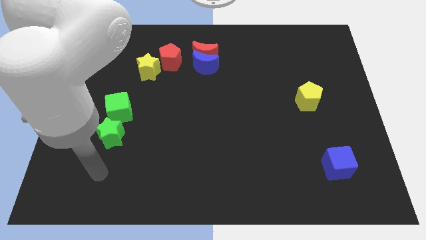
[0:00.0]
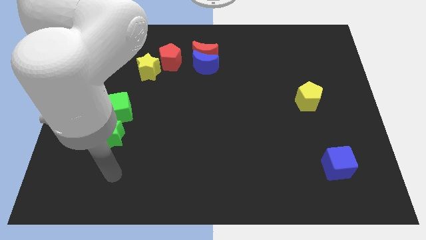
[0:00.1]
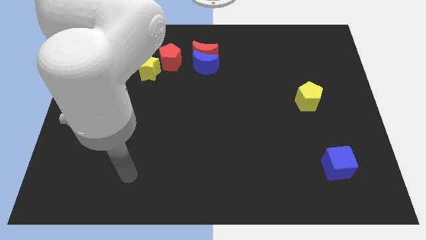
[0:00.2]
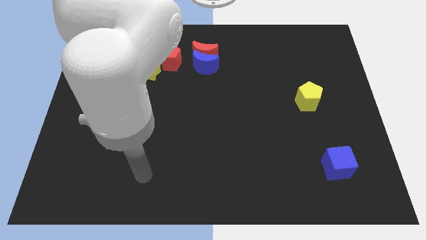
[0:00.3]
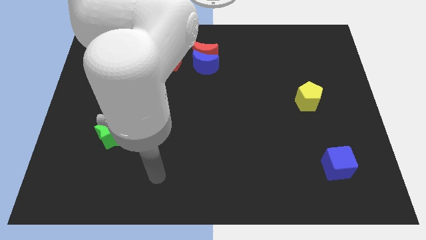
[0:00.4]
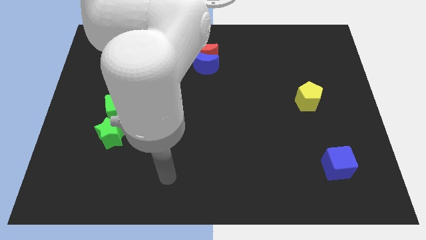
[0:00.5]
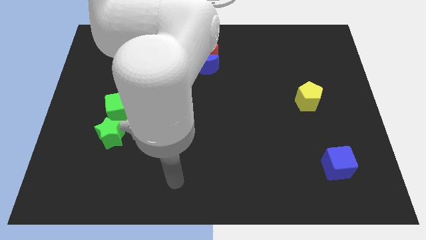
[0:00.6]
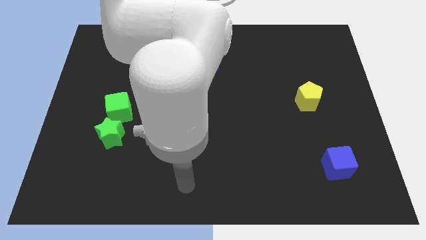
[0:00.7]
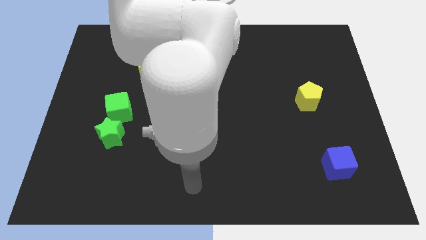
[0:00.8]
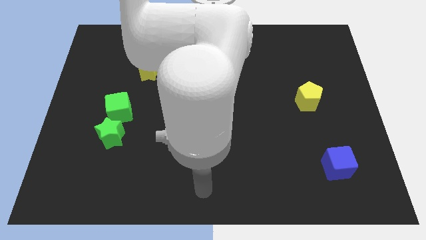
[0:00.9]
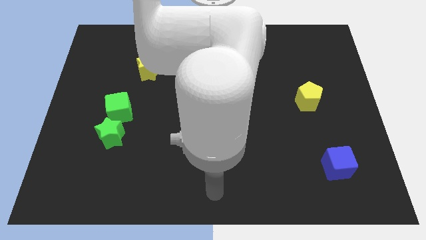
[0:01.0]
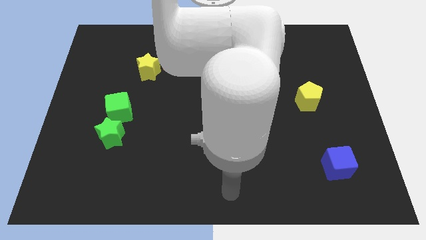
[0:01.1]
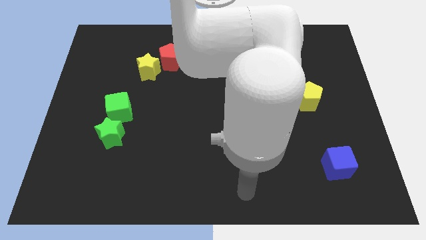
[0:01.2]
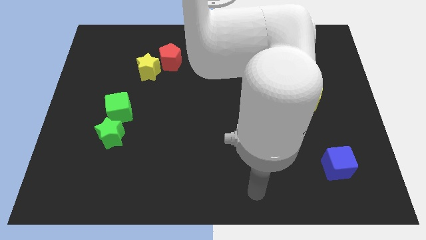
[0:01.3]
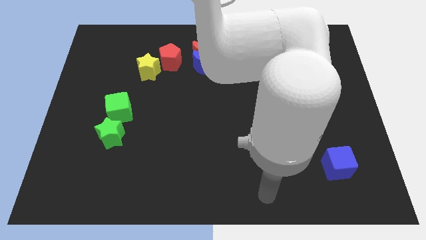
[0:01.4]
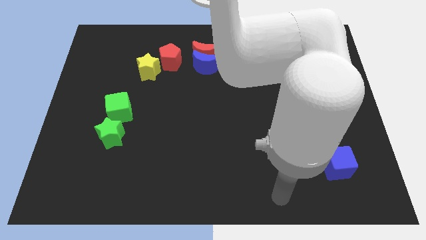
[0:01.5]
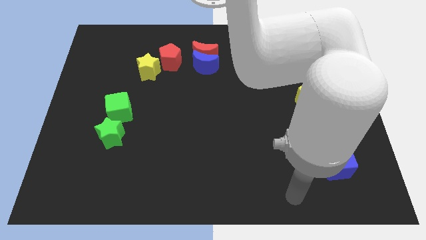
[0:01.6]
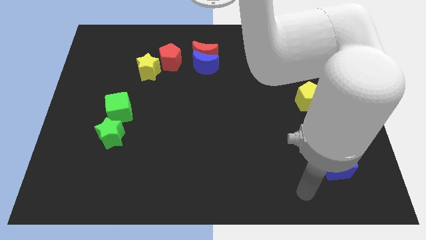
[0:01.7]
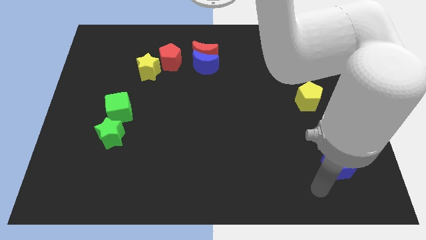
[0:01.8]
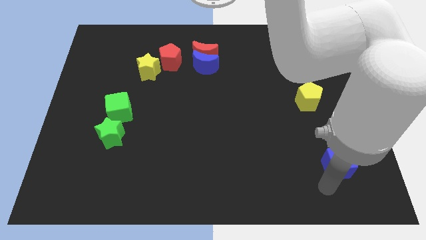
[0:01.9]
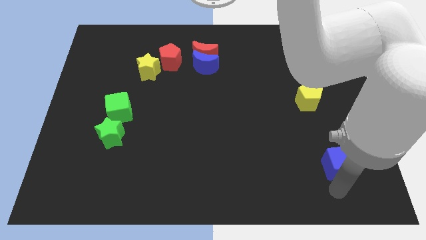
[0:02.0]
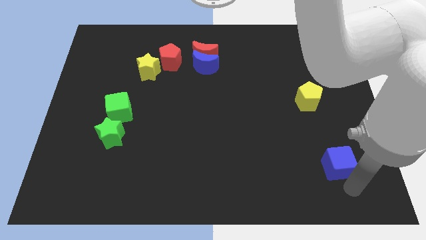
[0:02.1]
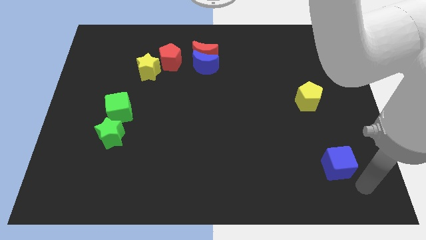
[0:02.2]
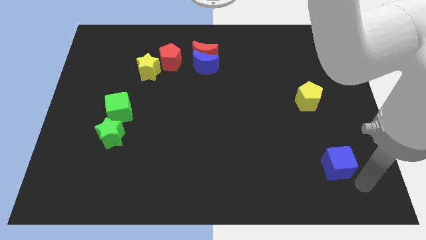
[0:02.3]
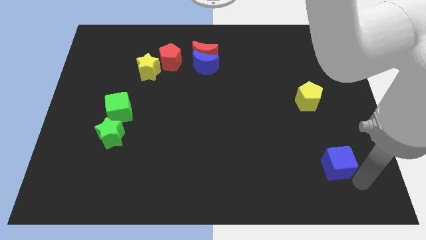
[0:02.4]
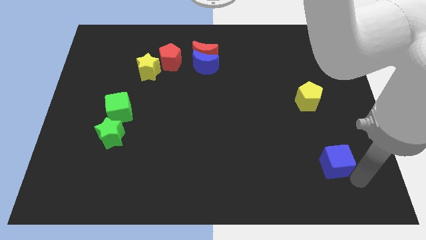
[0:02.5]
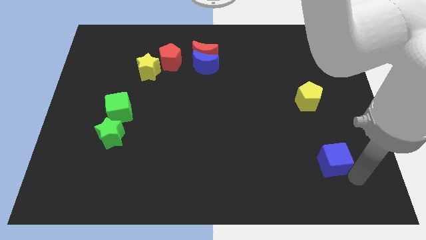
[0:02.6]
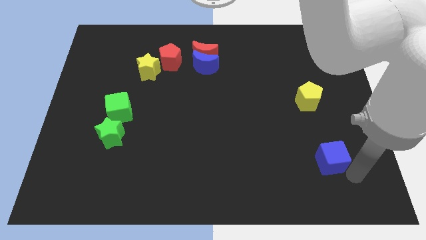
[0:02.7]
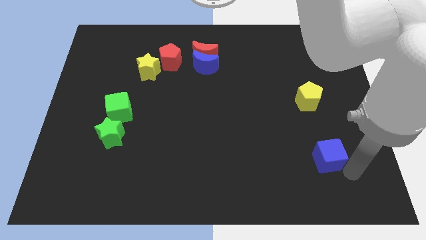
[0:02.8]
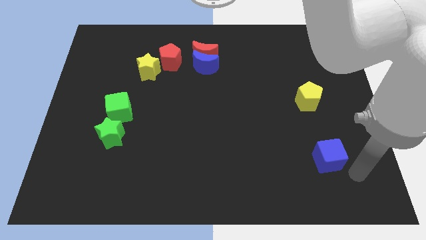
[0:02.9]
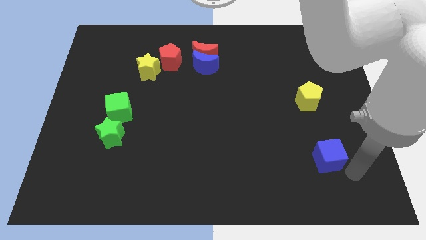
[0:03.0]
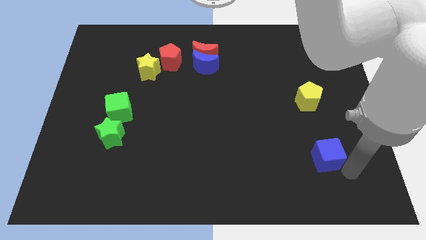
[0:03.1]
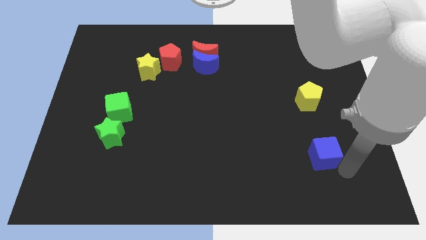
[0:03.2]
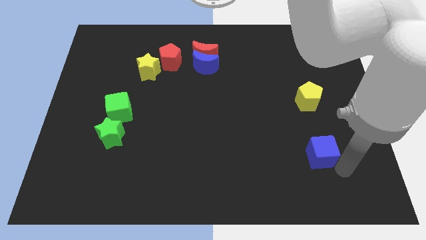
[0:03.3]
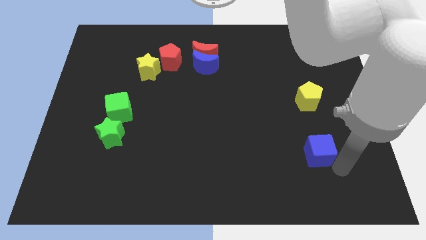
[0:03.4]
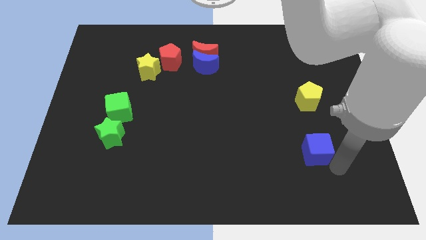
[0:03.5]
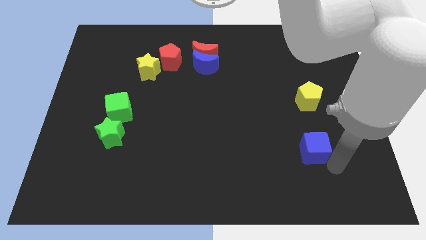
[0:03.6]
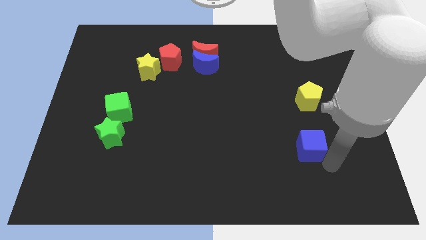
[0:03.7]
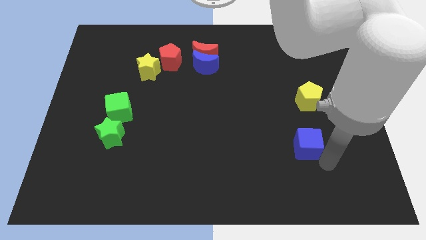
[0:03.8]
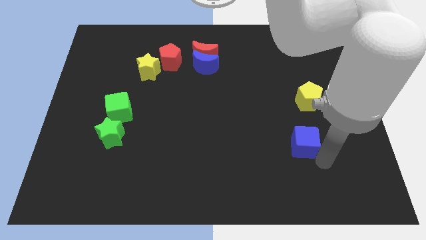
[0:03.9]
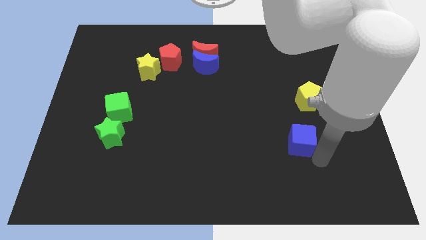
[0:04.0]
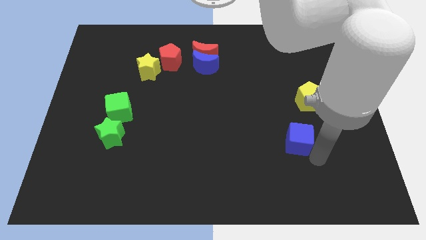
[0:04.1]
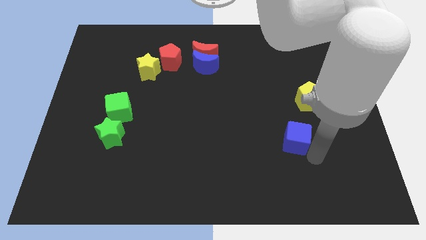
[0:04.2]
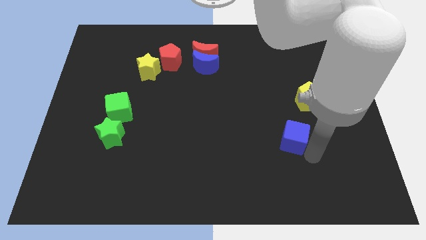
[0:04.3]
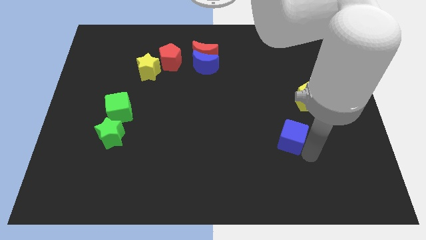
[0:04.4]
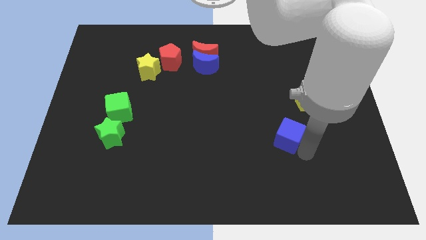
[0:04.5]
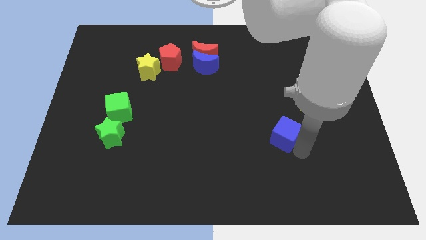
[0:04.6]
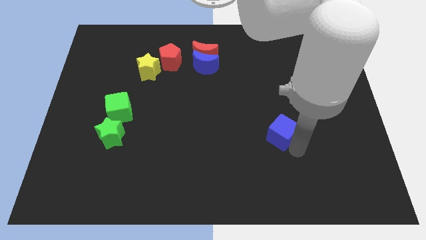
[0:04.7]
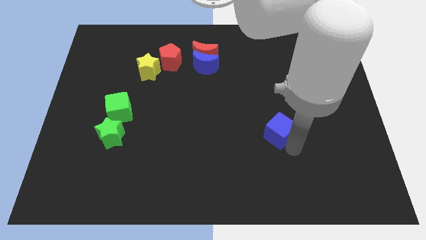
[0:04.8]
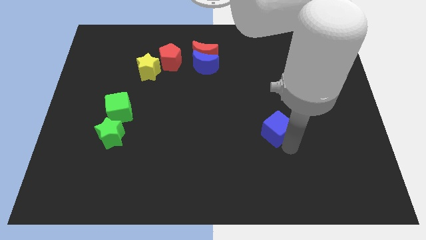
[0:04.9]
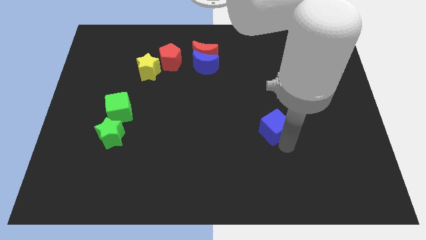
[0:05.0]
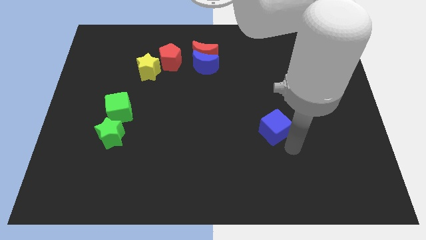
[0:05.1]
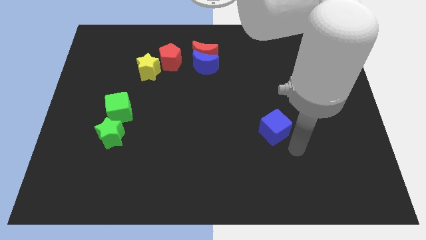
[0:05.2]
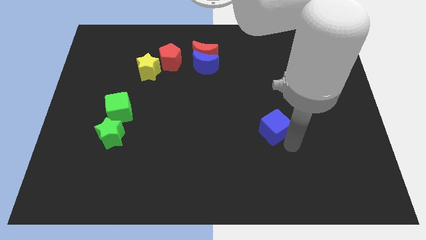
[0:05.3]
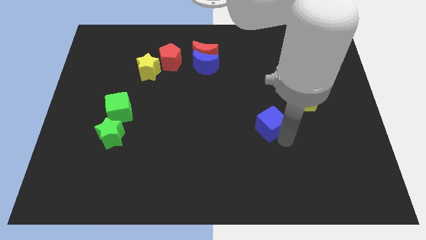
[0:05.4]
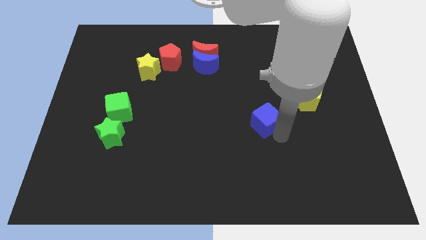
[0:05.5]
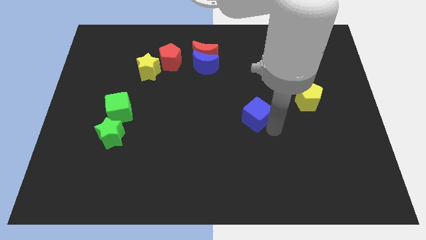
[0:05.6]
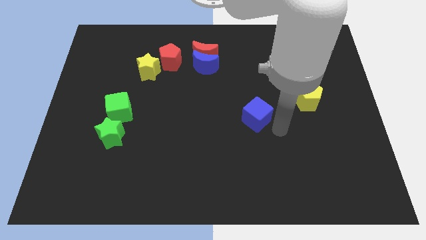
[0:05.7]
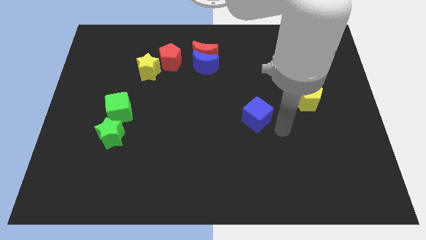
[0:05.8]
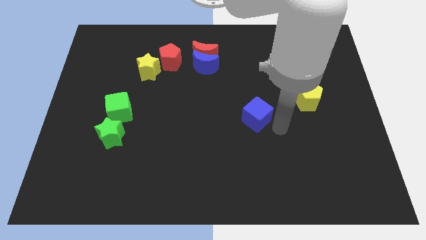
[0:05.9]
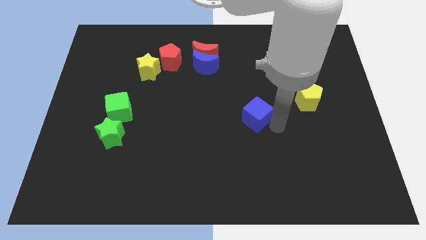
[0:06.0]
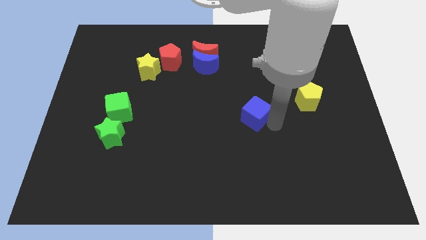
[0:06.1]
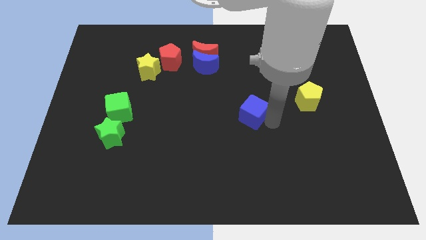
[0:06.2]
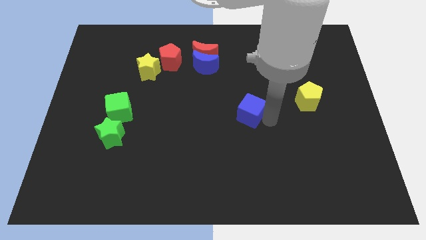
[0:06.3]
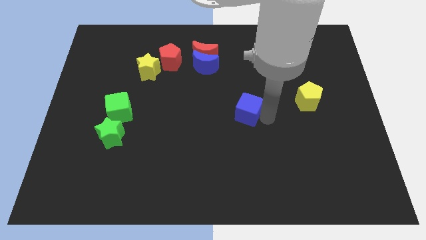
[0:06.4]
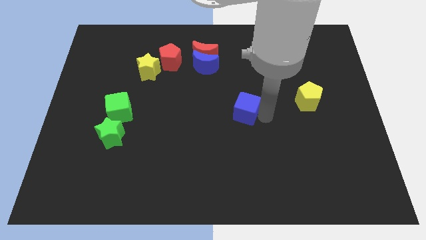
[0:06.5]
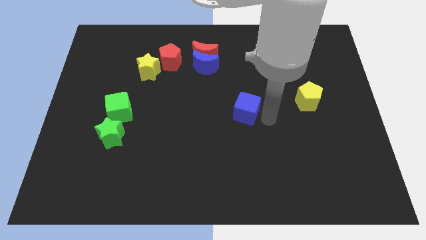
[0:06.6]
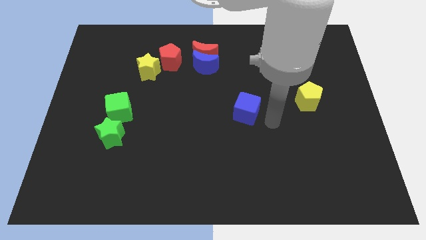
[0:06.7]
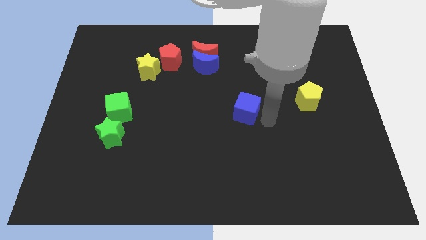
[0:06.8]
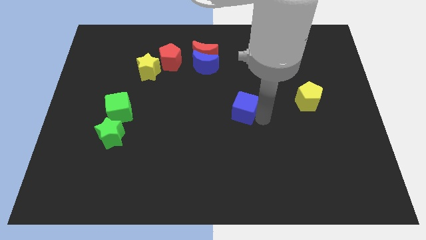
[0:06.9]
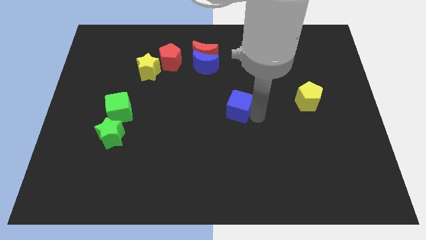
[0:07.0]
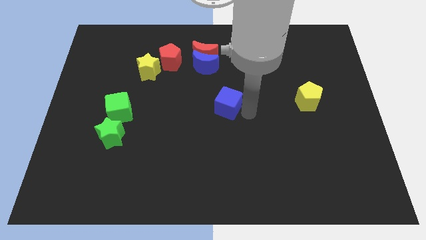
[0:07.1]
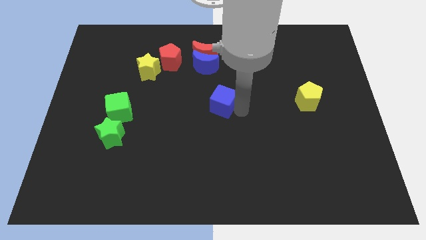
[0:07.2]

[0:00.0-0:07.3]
move the blue cube to the bottom side of the blue moon
